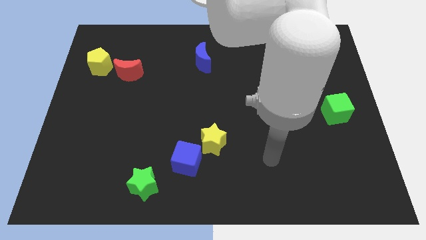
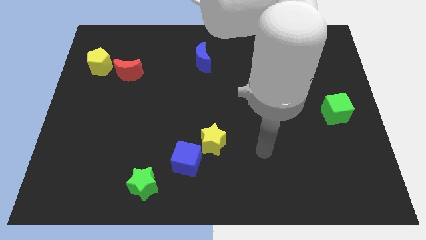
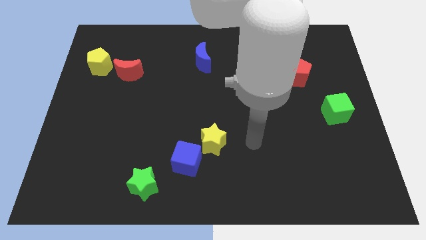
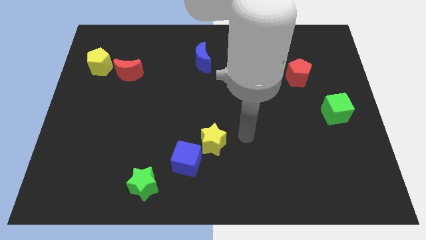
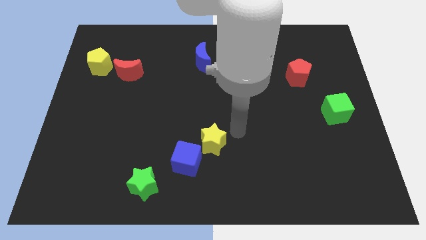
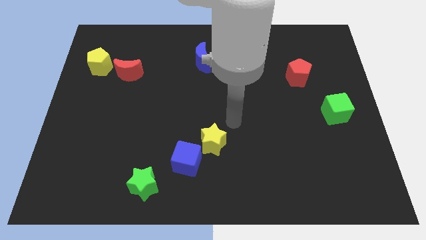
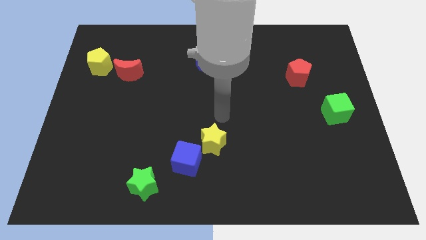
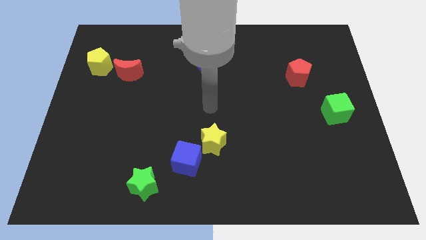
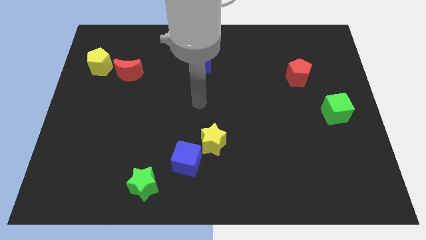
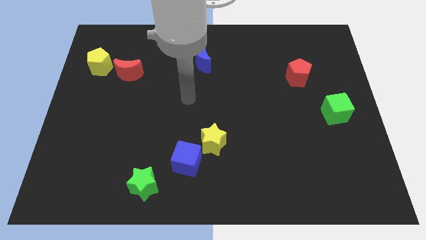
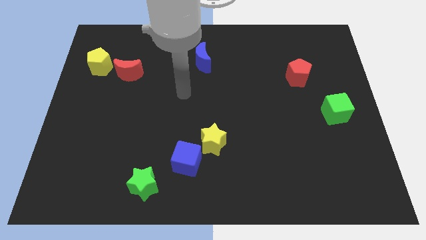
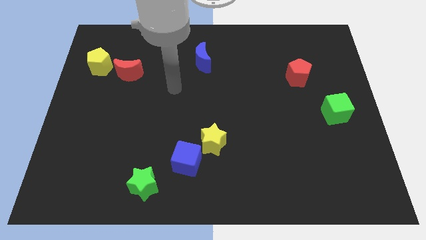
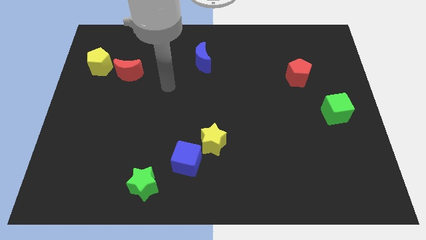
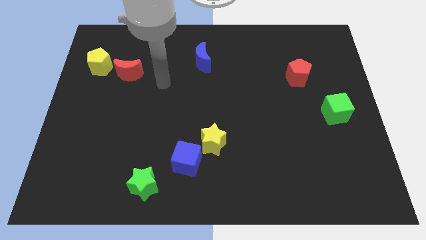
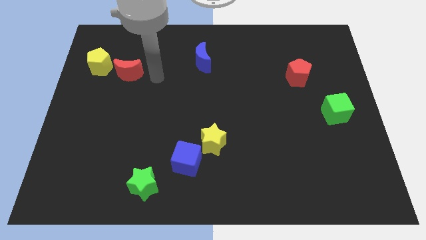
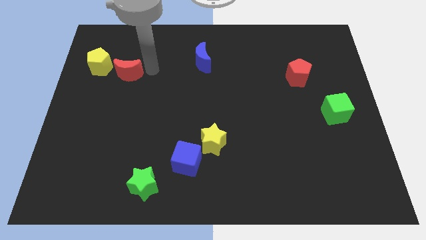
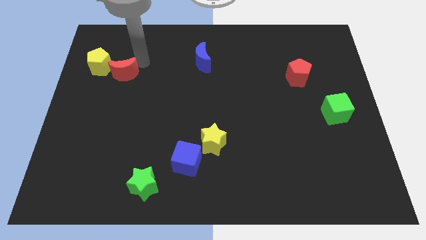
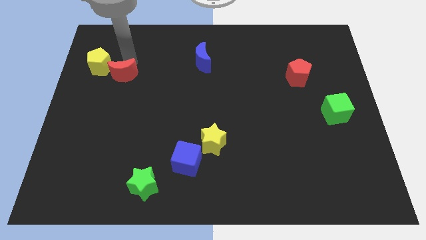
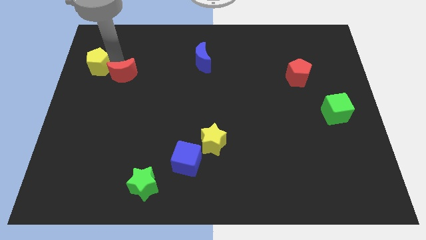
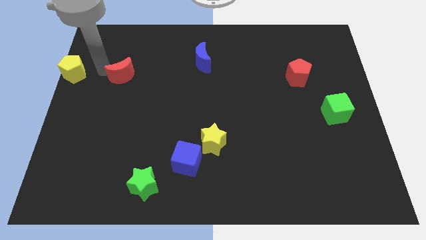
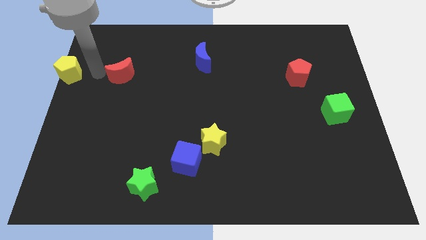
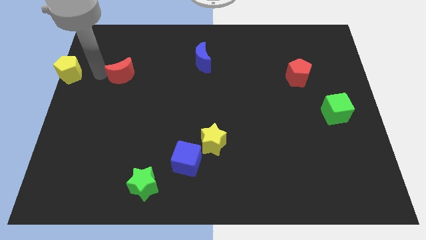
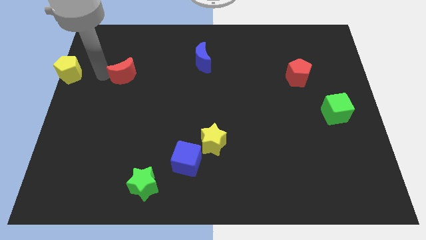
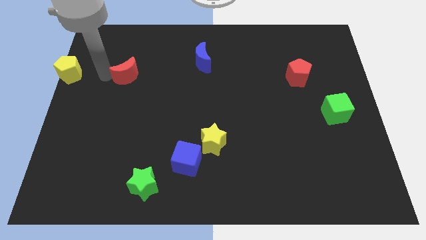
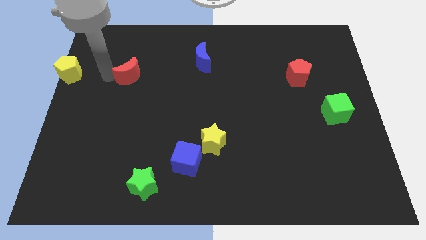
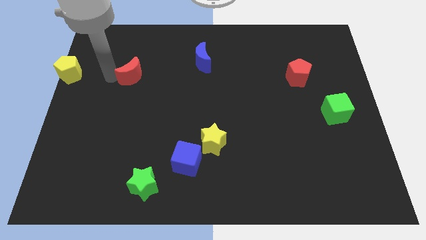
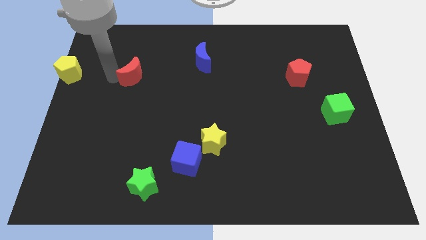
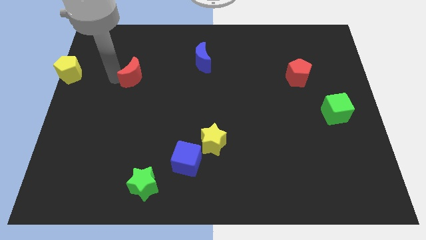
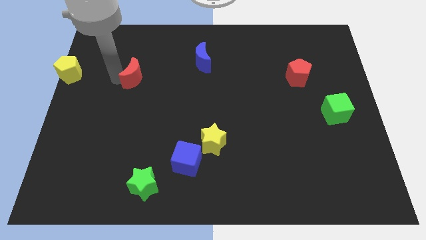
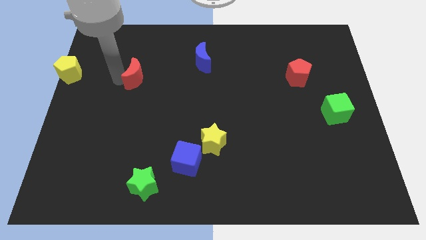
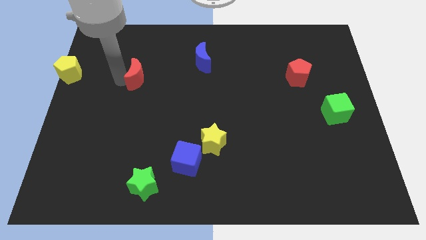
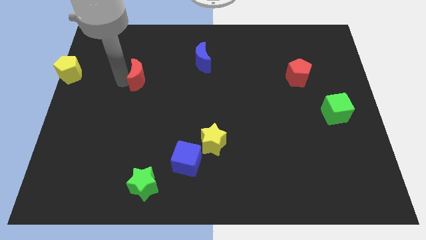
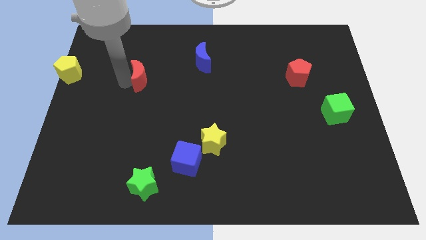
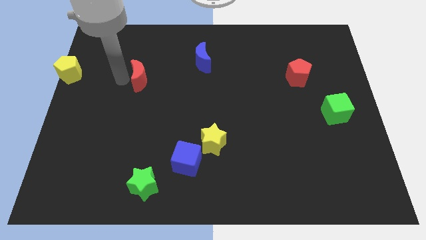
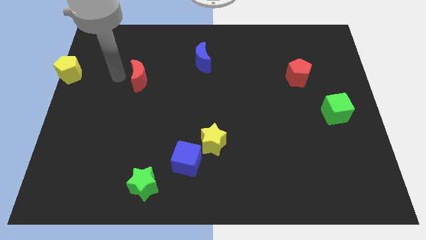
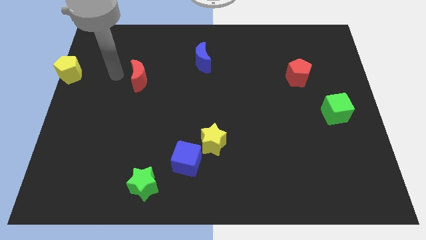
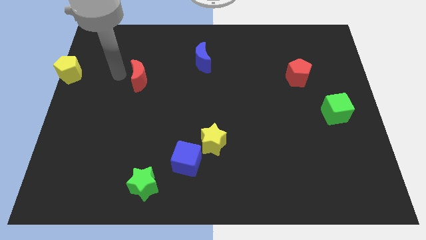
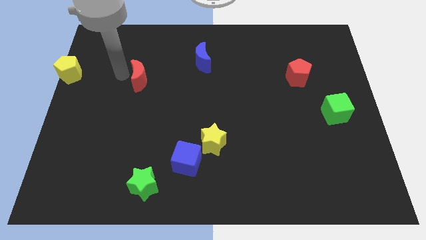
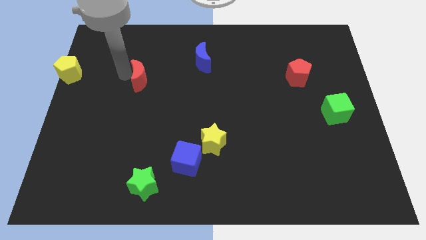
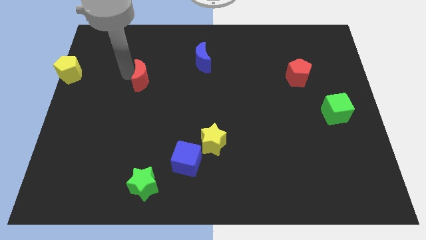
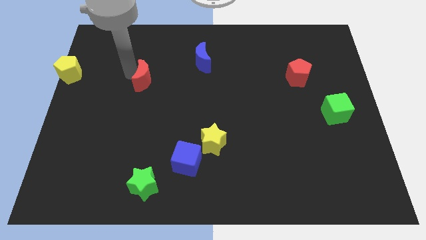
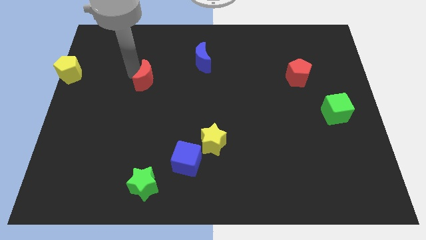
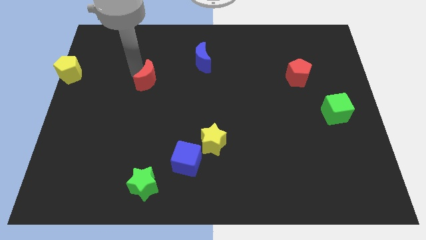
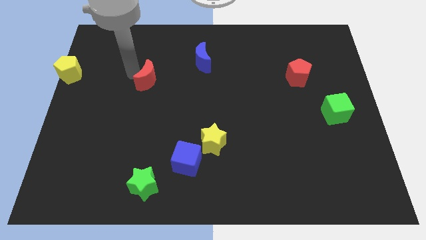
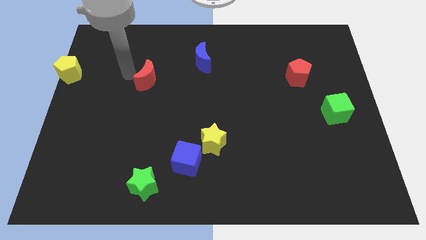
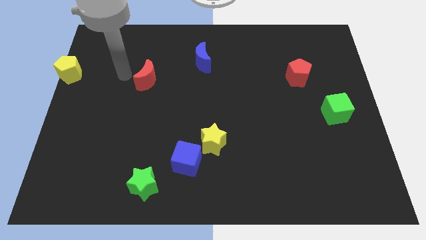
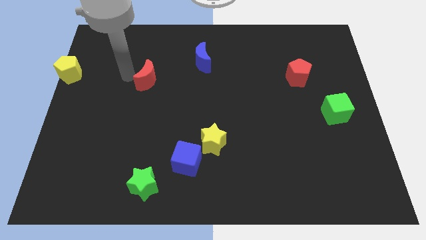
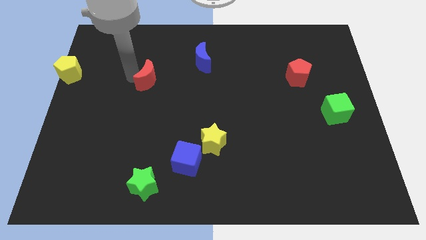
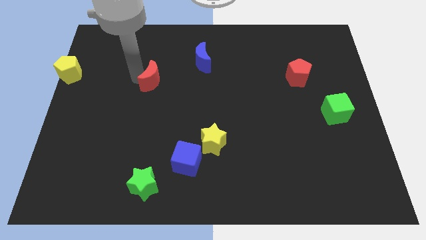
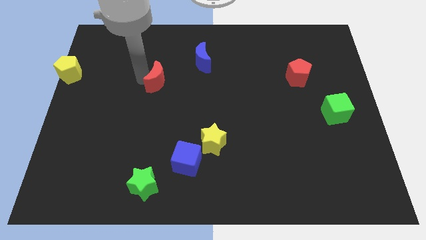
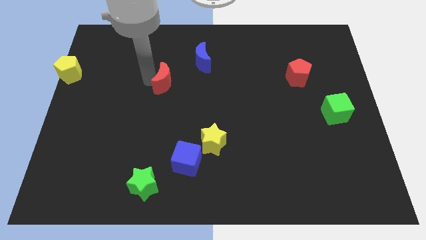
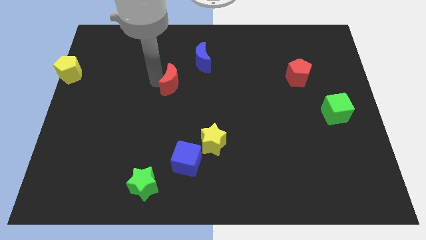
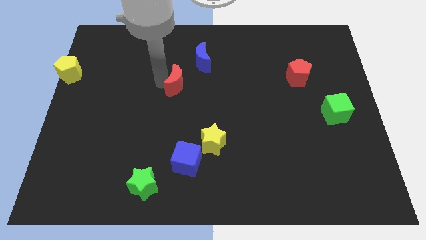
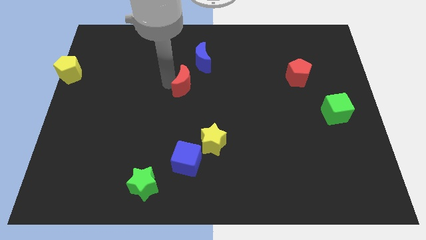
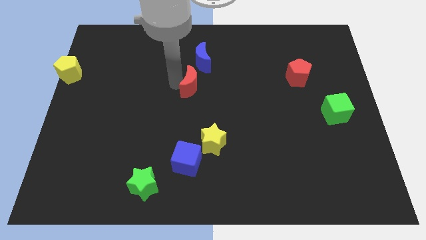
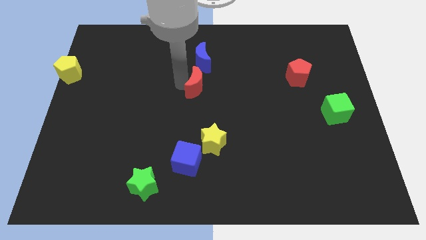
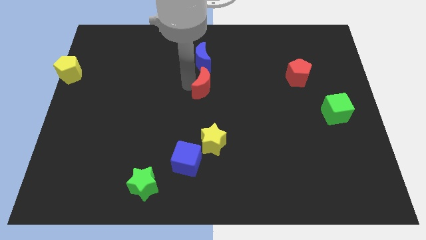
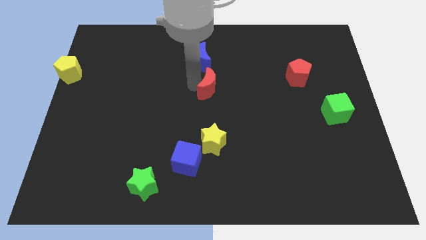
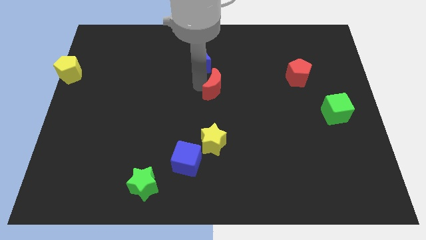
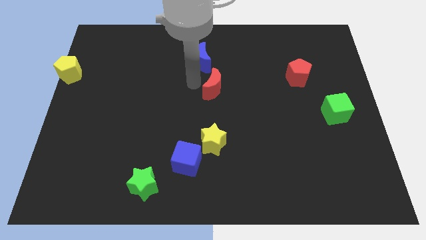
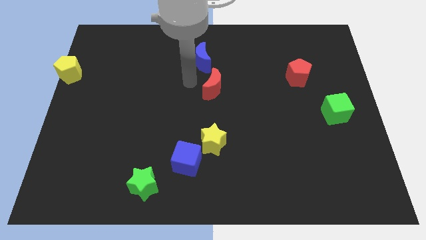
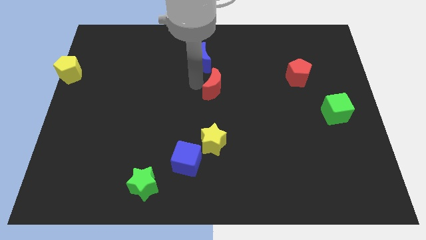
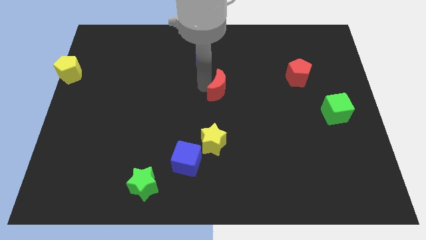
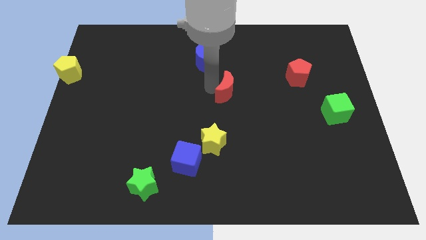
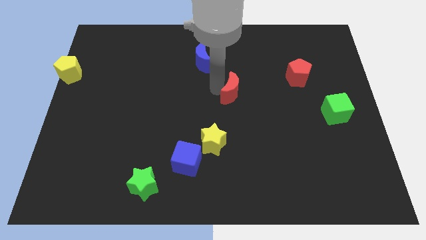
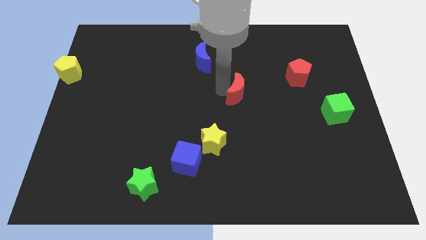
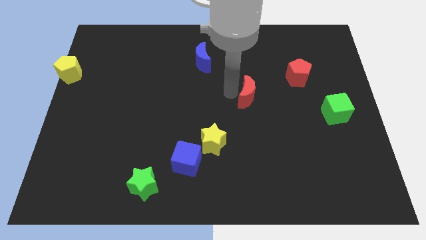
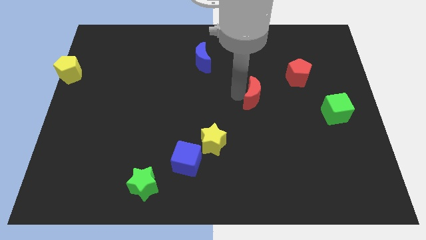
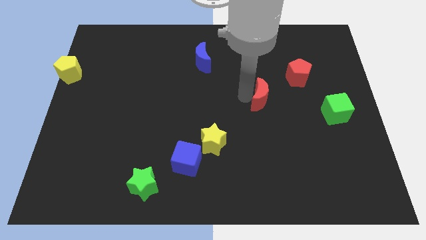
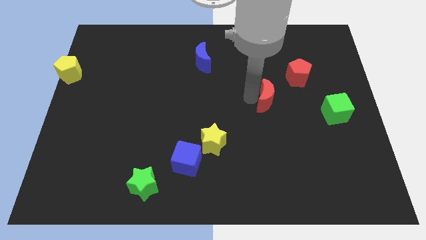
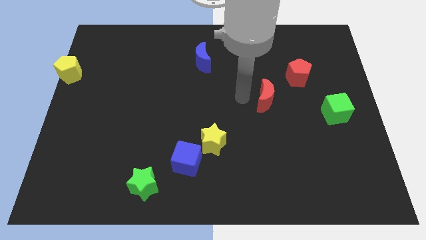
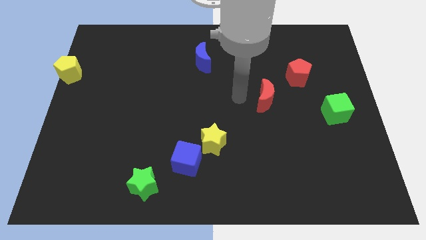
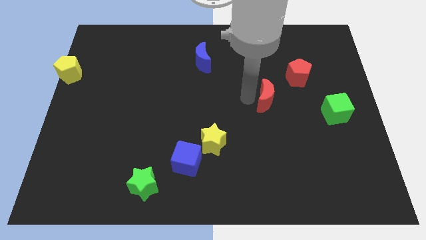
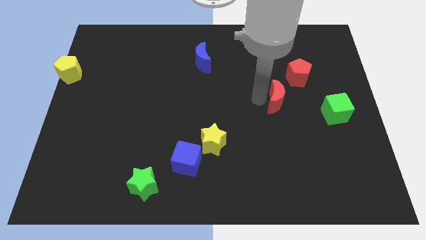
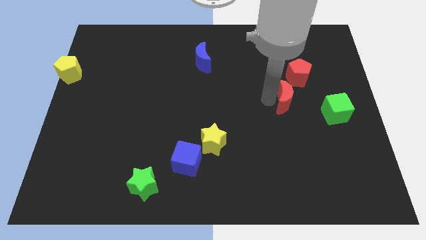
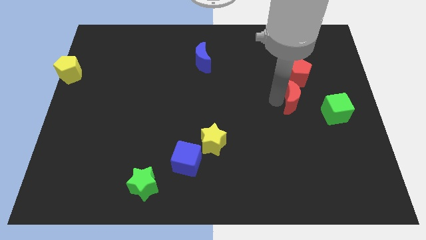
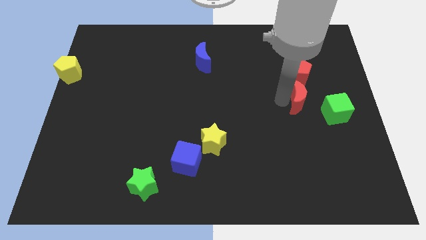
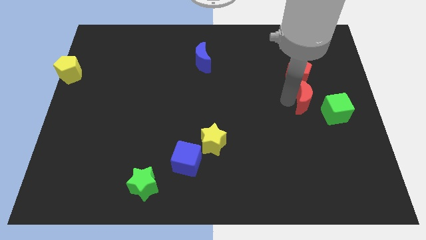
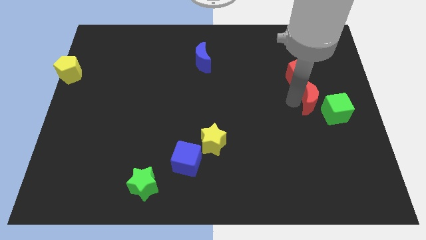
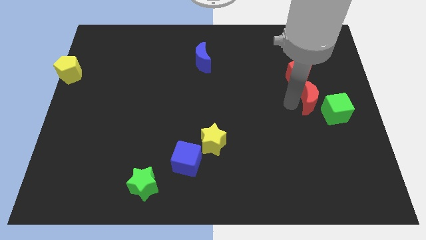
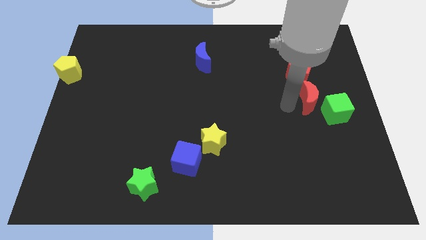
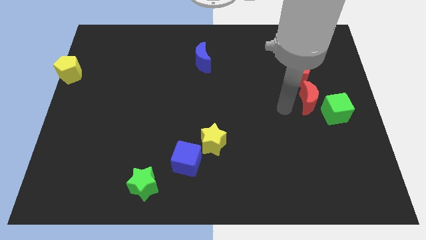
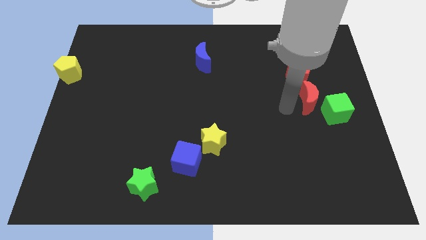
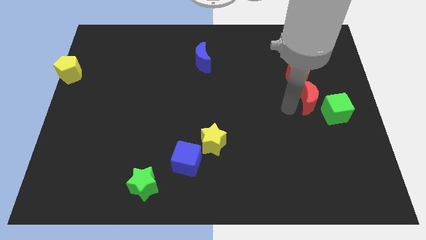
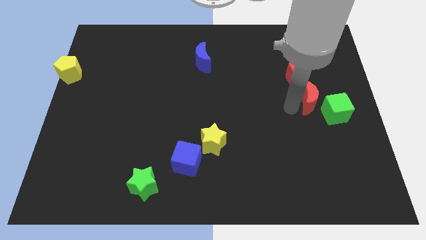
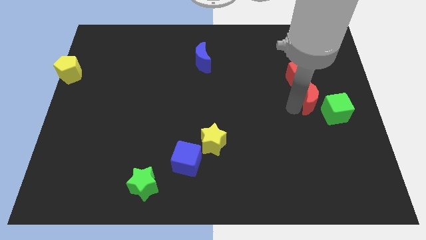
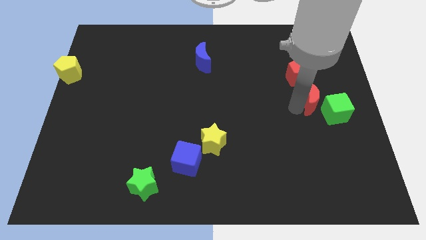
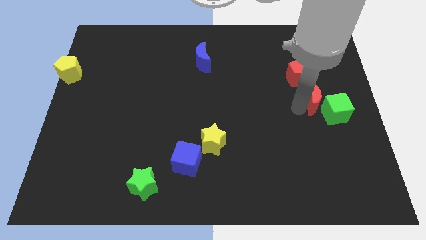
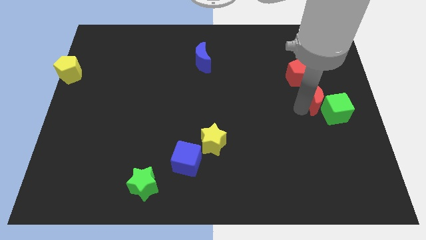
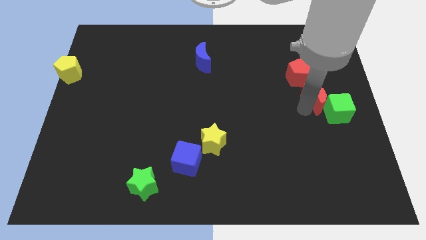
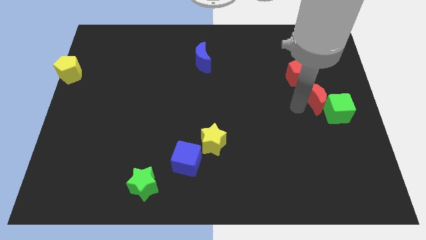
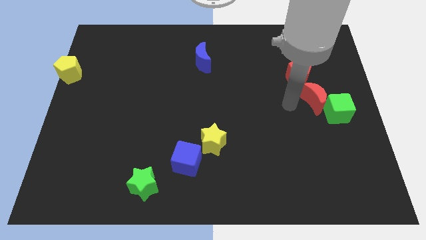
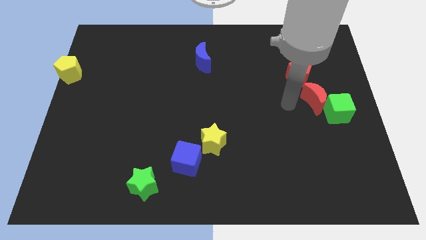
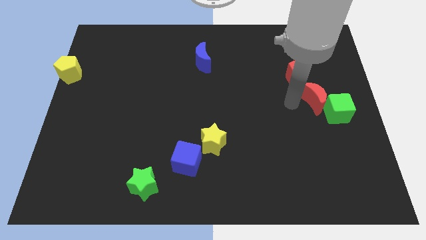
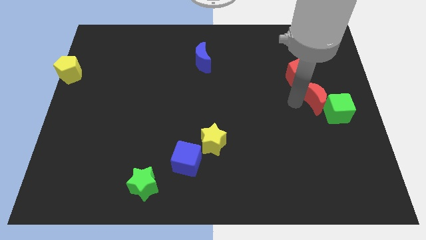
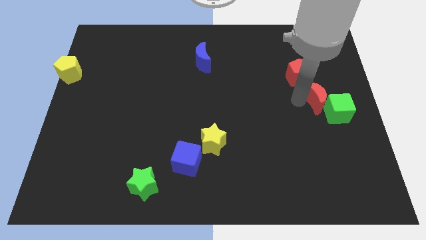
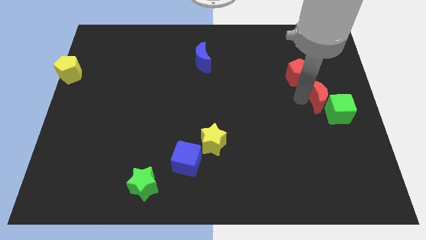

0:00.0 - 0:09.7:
put the red moon to the right side of the board
